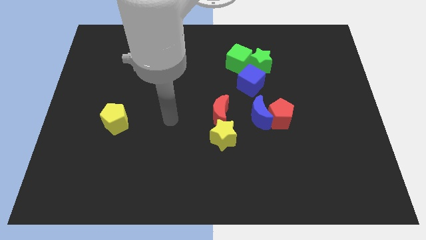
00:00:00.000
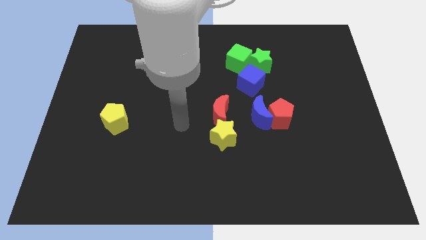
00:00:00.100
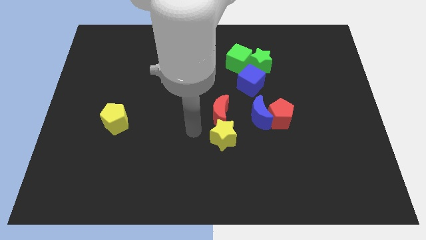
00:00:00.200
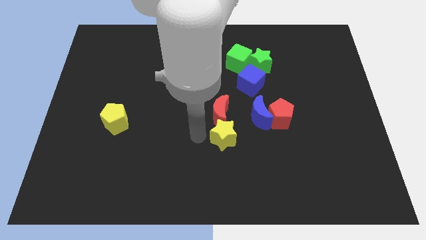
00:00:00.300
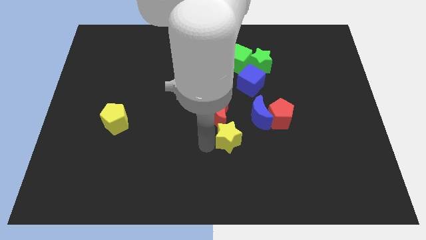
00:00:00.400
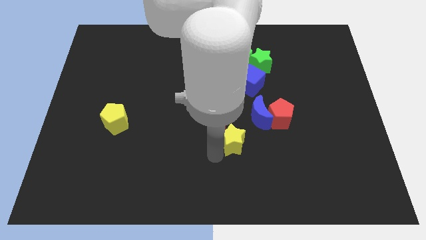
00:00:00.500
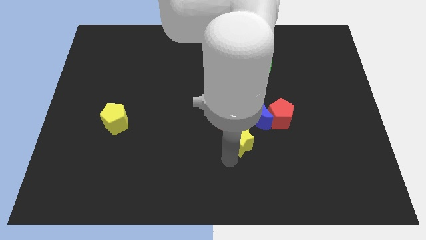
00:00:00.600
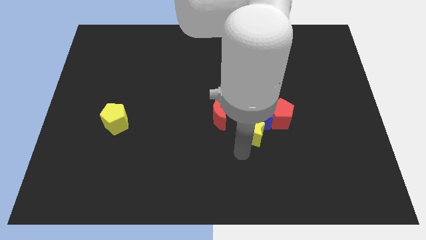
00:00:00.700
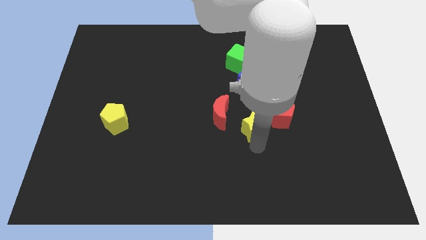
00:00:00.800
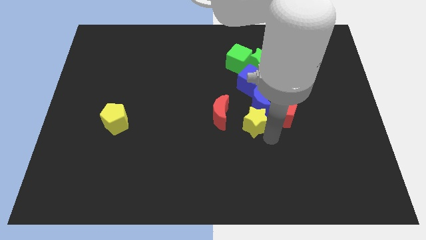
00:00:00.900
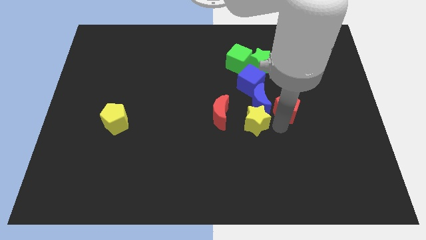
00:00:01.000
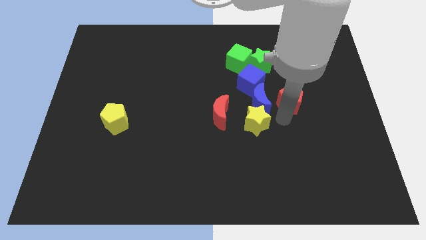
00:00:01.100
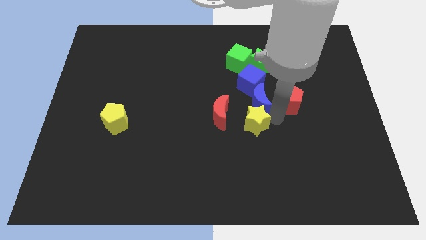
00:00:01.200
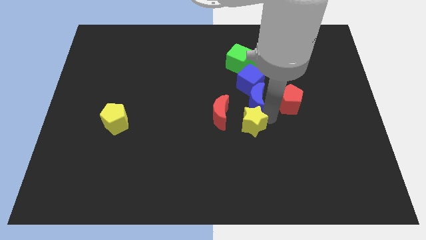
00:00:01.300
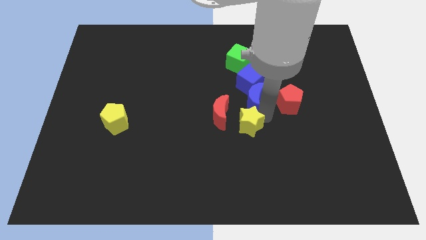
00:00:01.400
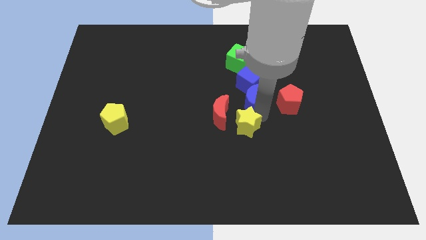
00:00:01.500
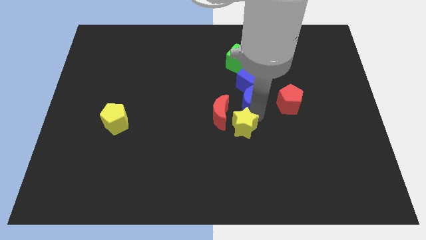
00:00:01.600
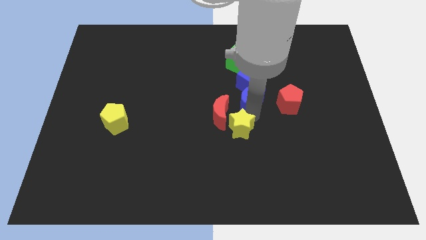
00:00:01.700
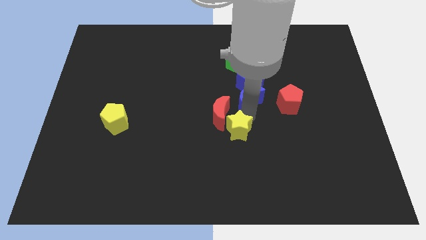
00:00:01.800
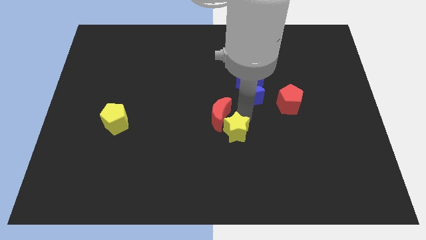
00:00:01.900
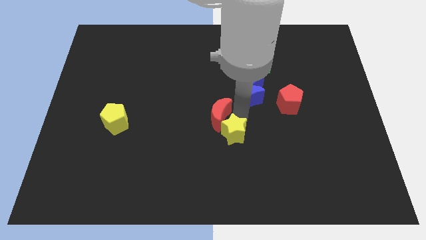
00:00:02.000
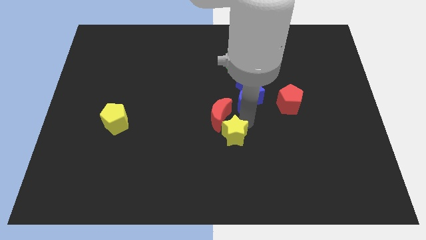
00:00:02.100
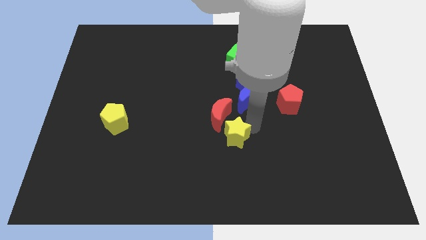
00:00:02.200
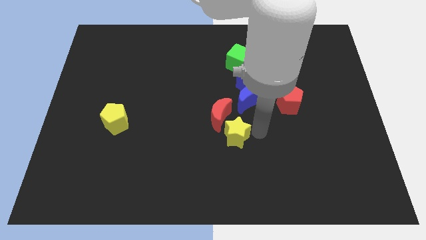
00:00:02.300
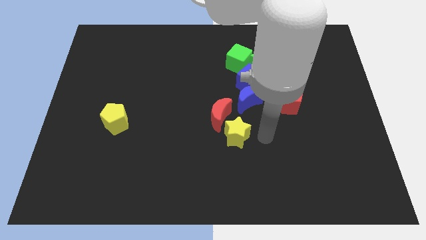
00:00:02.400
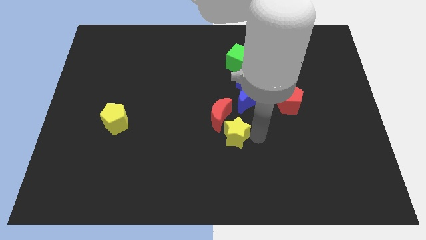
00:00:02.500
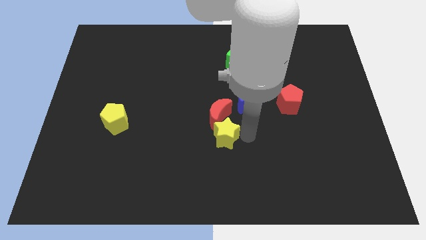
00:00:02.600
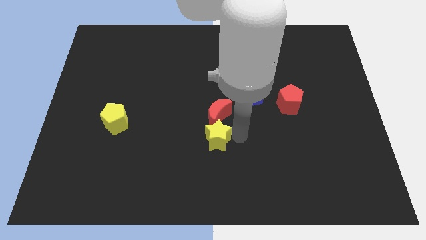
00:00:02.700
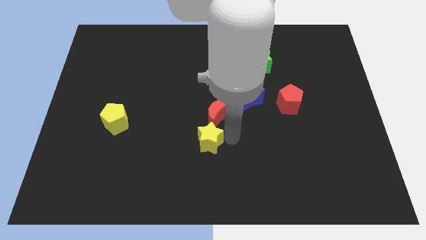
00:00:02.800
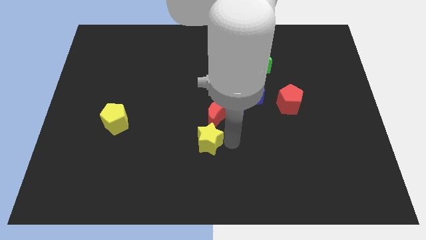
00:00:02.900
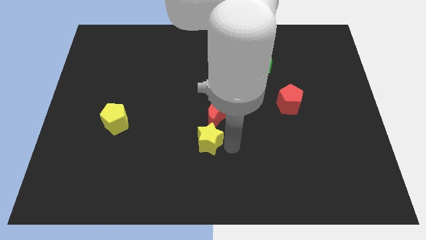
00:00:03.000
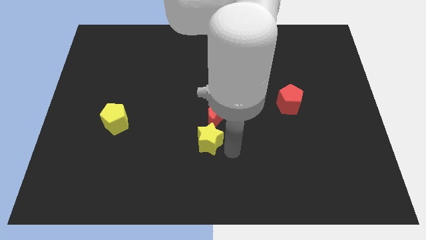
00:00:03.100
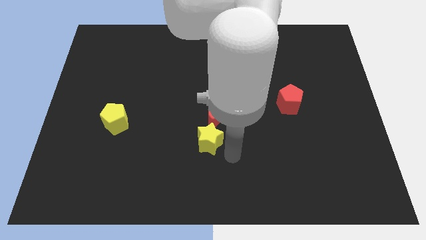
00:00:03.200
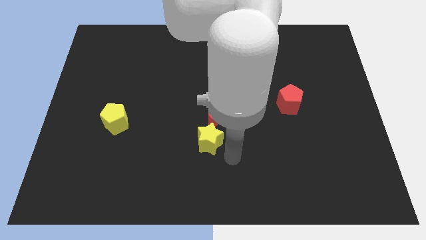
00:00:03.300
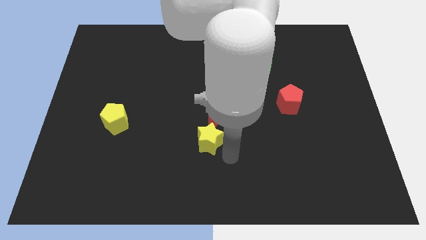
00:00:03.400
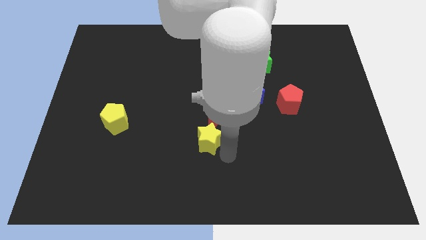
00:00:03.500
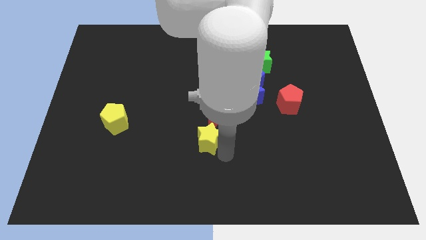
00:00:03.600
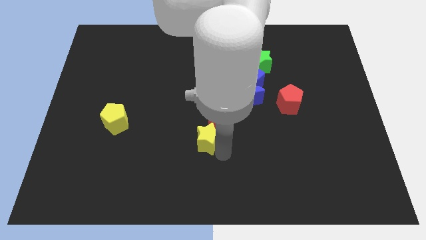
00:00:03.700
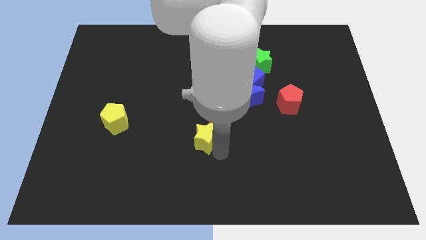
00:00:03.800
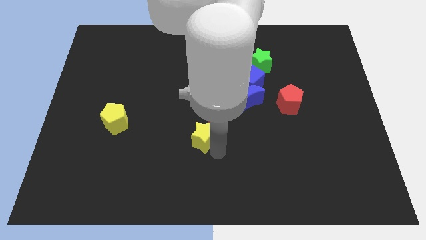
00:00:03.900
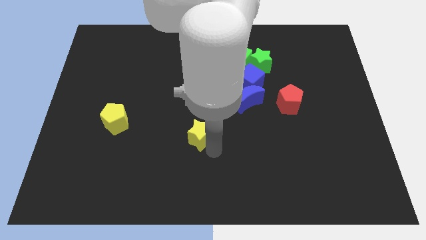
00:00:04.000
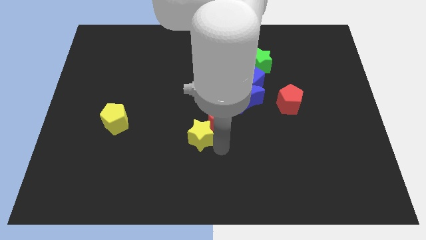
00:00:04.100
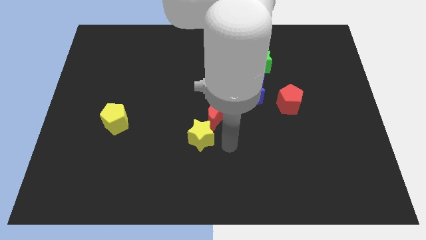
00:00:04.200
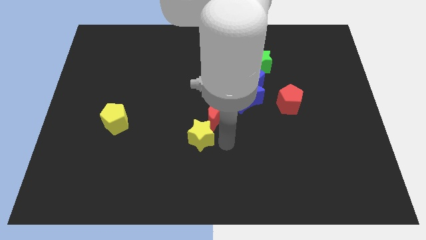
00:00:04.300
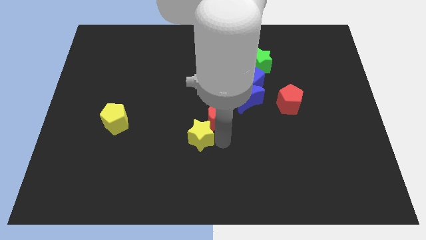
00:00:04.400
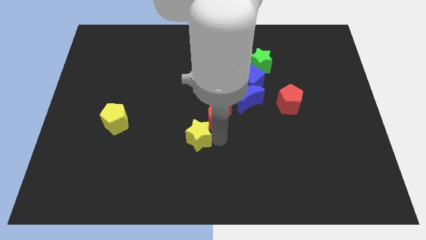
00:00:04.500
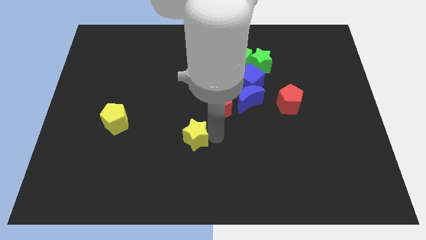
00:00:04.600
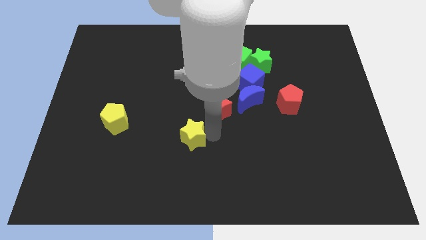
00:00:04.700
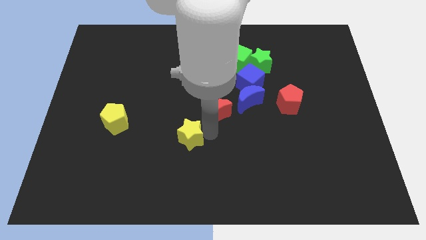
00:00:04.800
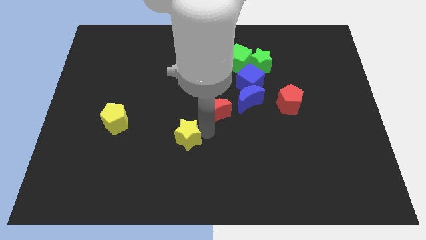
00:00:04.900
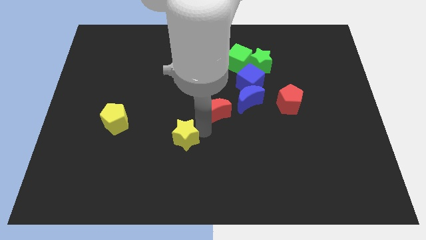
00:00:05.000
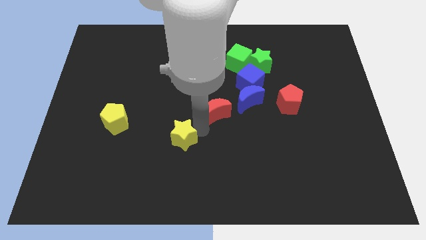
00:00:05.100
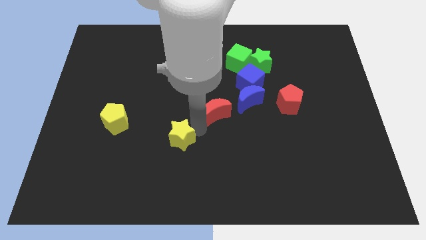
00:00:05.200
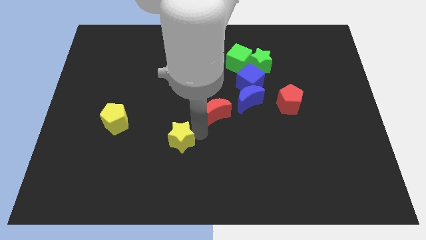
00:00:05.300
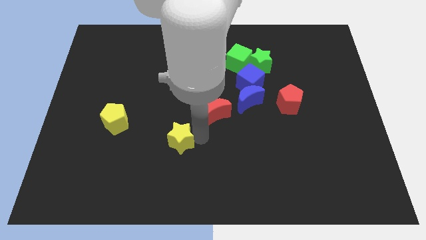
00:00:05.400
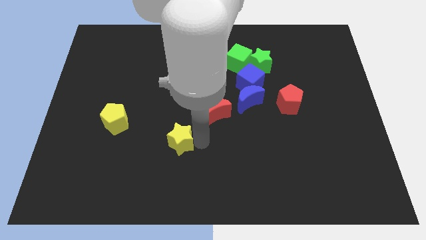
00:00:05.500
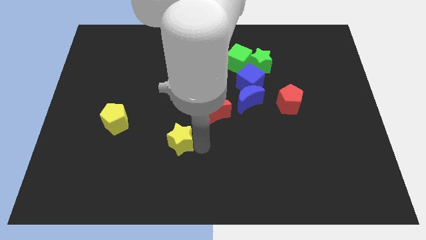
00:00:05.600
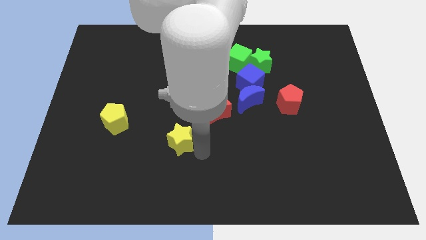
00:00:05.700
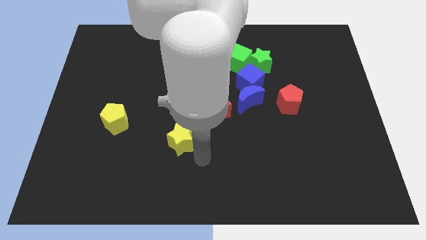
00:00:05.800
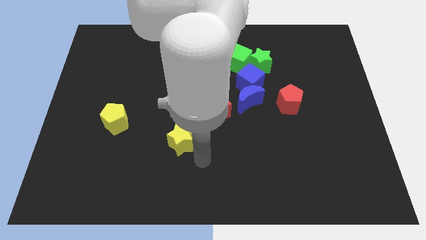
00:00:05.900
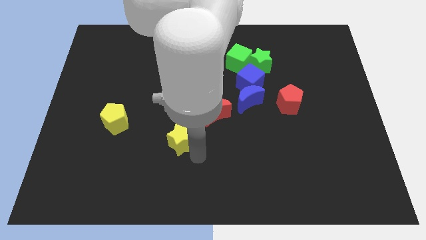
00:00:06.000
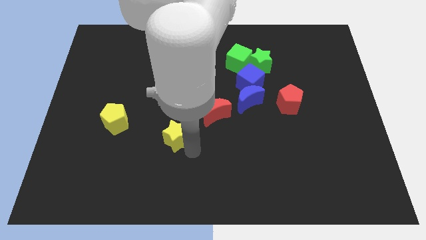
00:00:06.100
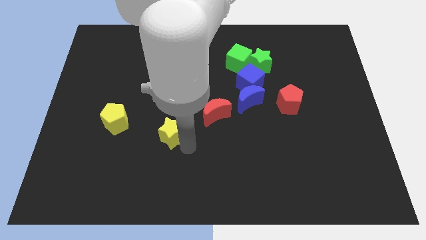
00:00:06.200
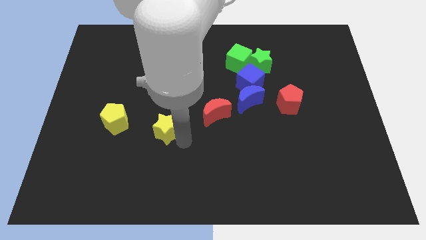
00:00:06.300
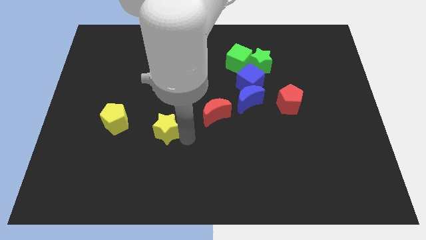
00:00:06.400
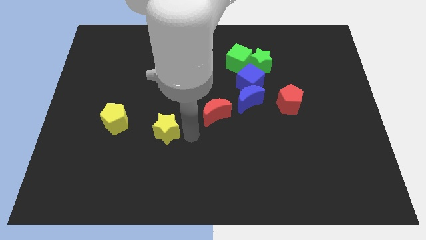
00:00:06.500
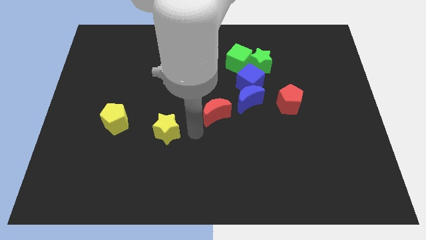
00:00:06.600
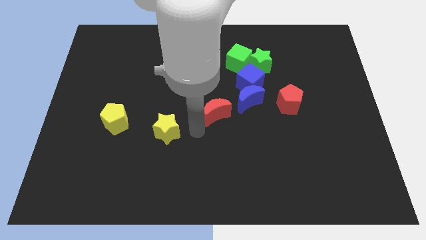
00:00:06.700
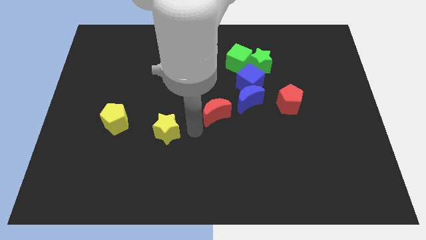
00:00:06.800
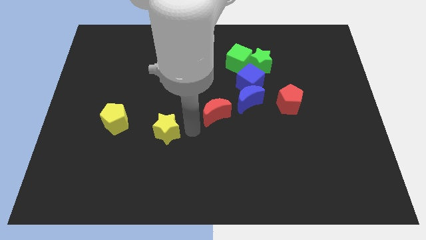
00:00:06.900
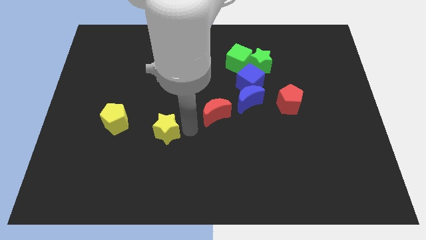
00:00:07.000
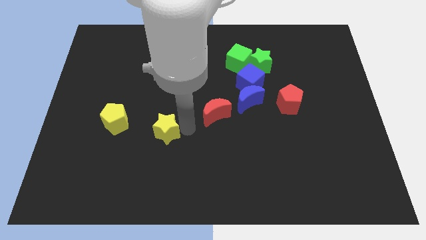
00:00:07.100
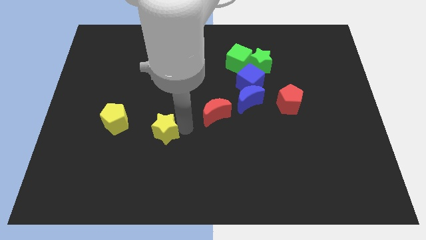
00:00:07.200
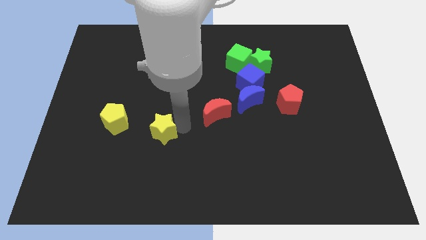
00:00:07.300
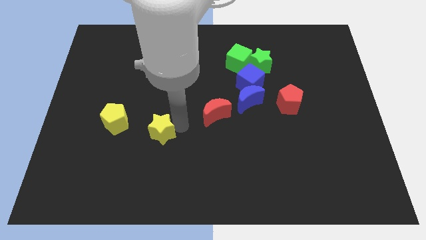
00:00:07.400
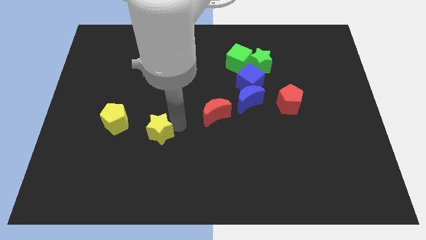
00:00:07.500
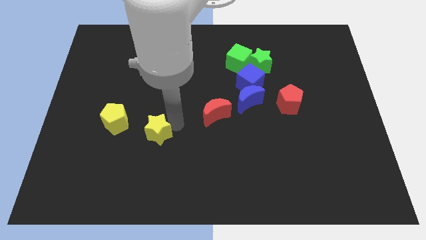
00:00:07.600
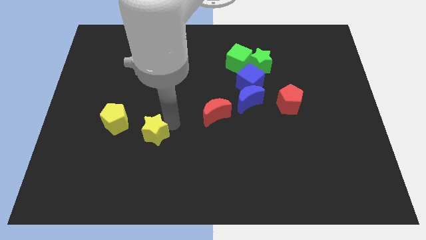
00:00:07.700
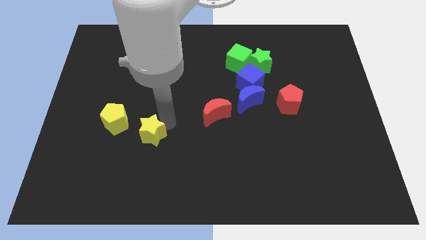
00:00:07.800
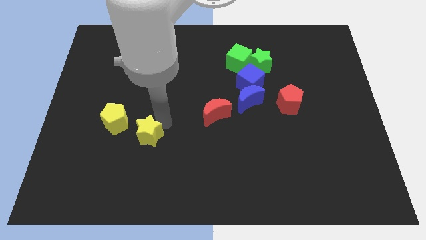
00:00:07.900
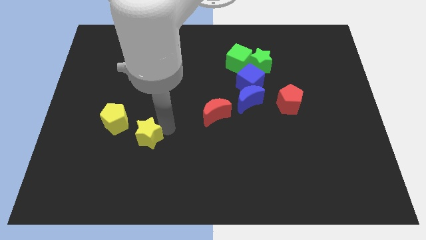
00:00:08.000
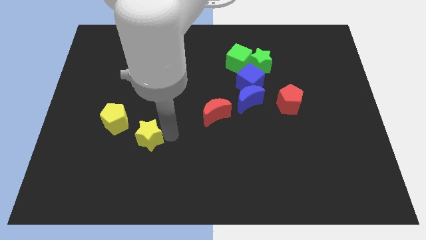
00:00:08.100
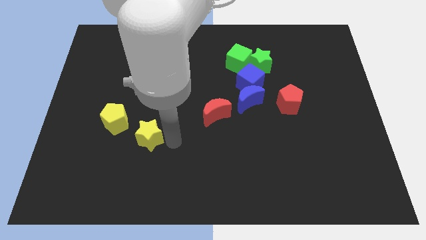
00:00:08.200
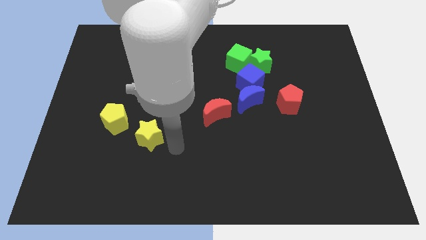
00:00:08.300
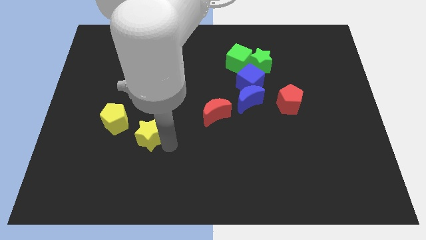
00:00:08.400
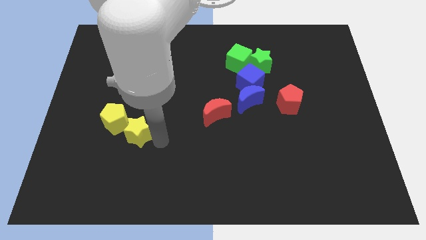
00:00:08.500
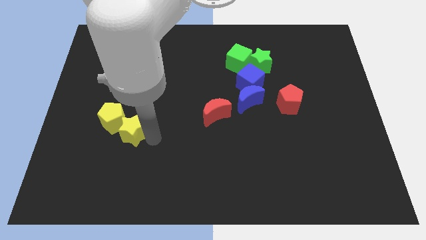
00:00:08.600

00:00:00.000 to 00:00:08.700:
put the yellow star to the yellow pentagon
